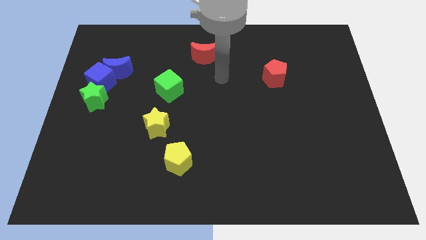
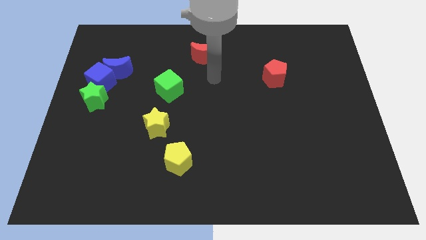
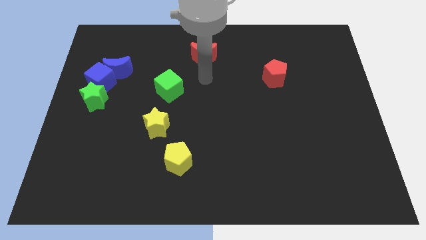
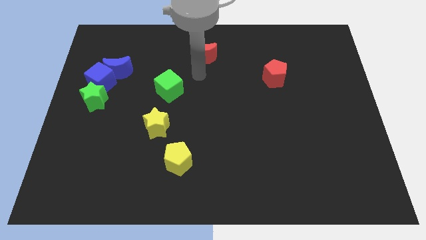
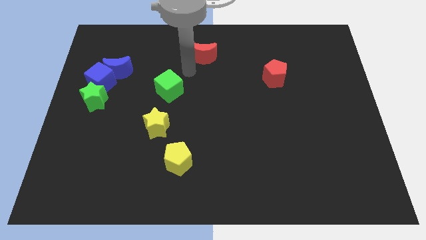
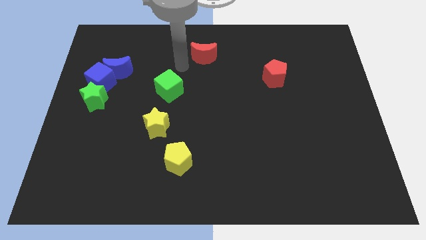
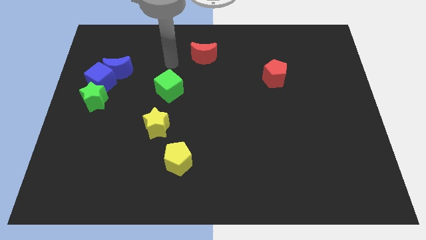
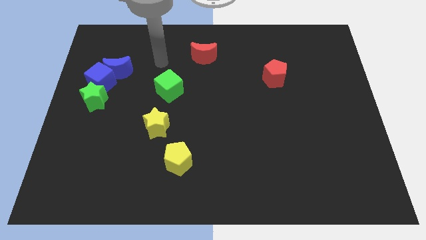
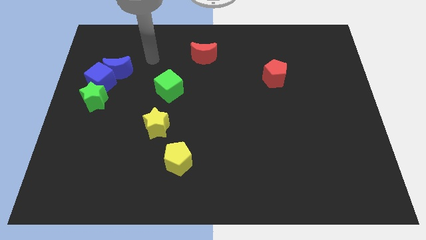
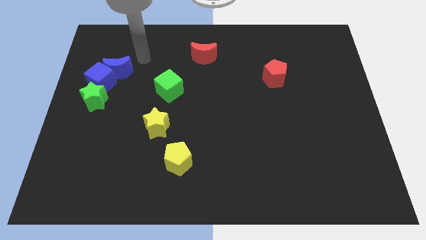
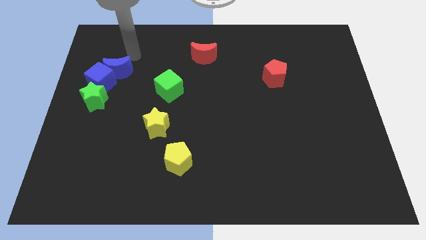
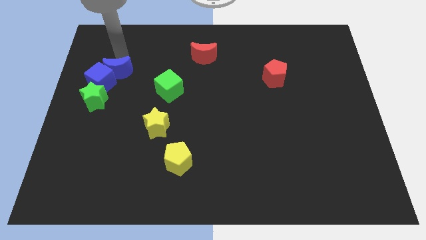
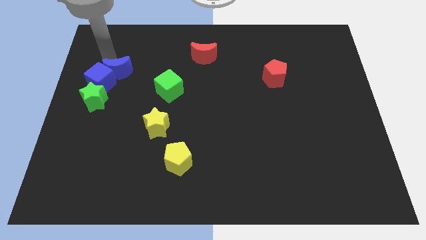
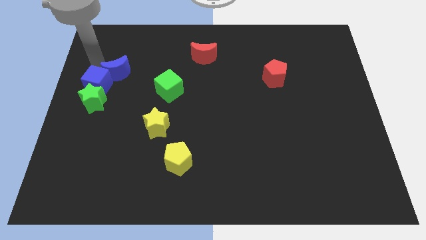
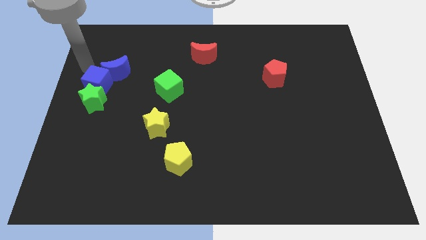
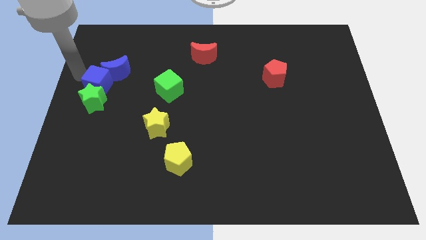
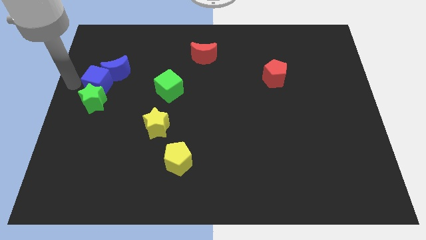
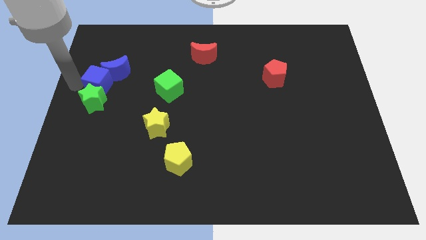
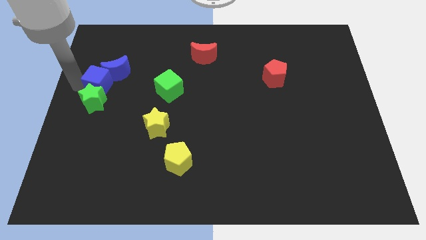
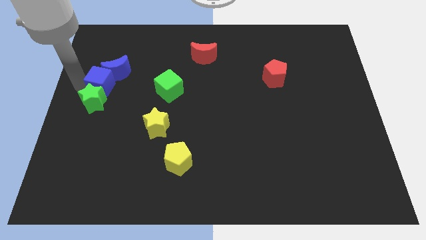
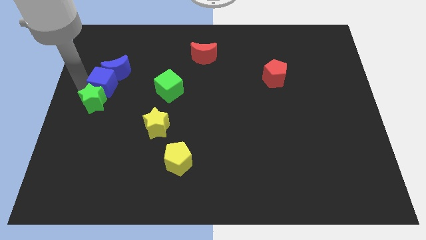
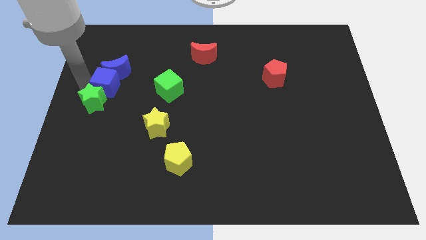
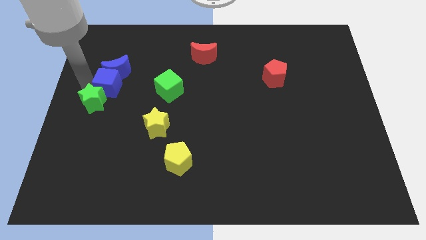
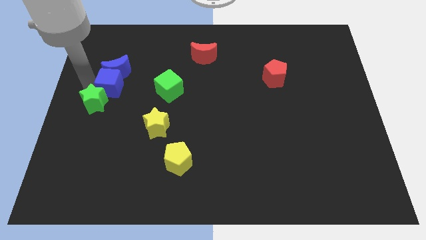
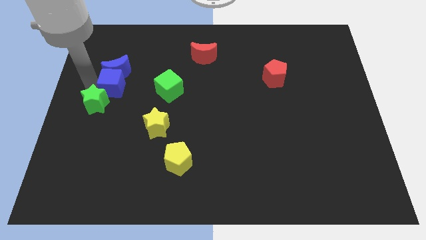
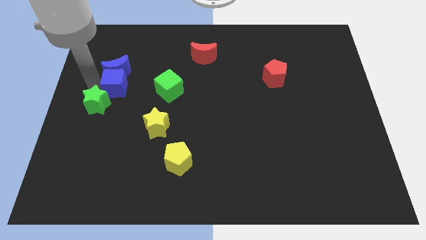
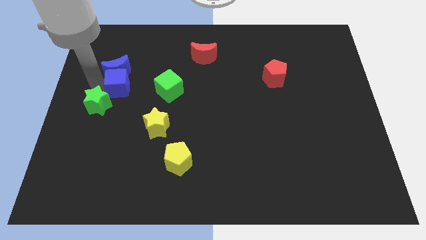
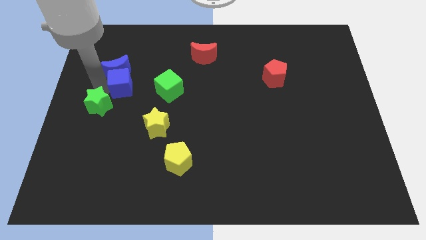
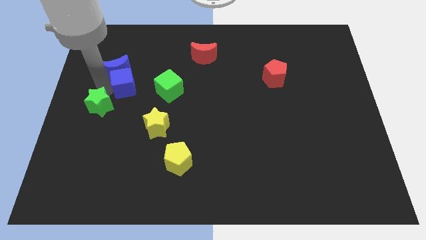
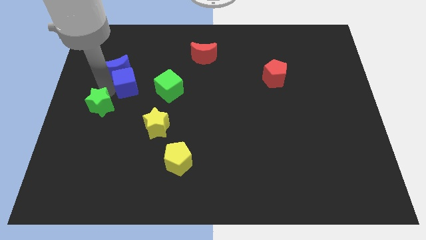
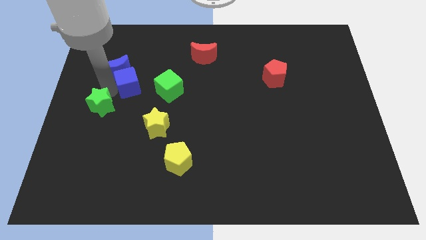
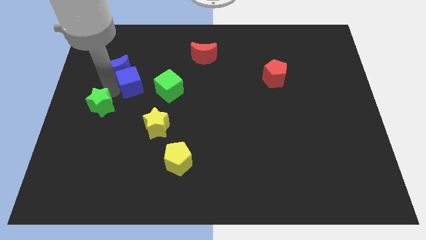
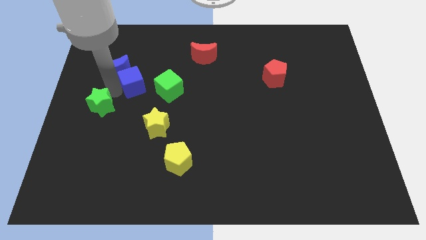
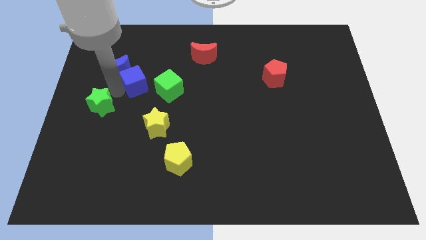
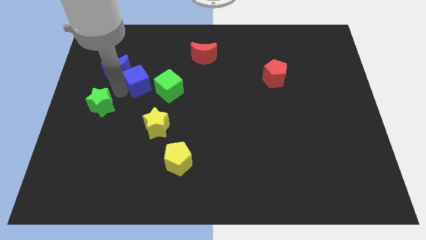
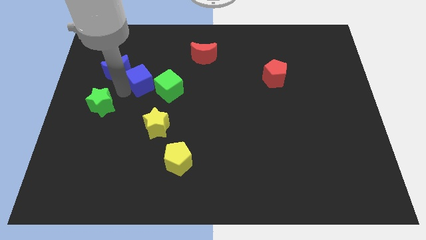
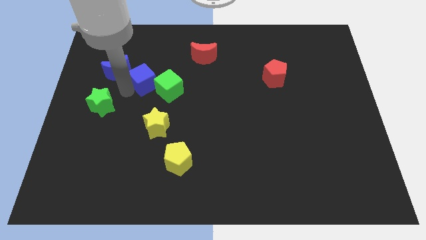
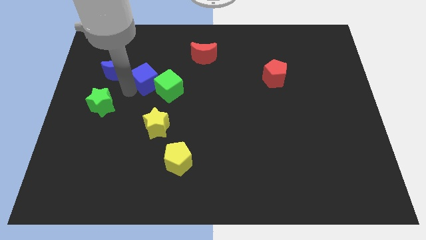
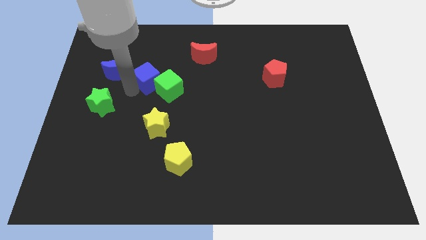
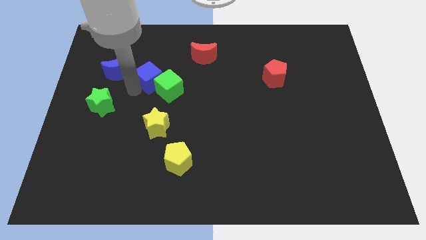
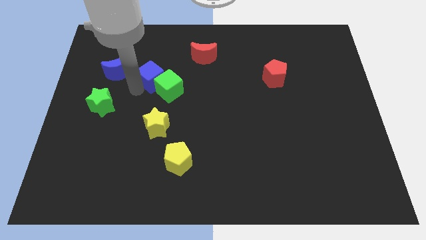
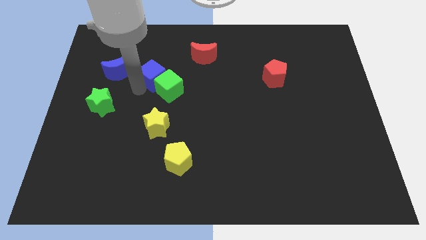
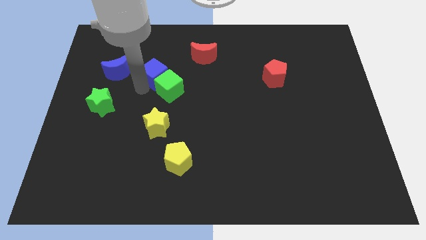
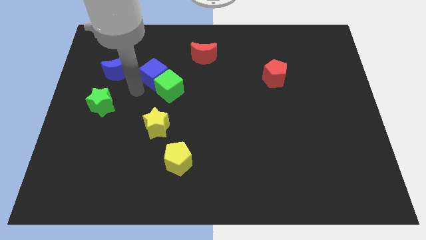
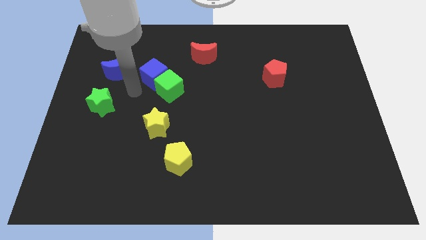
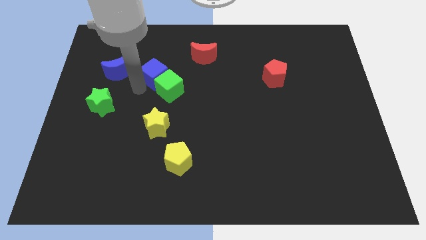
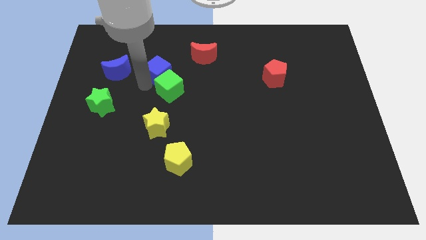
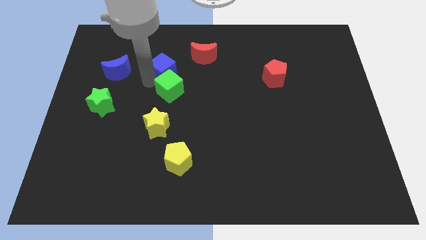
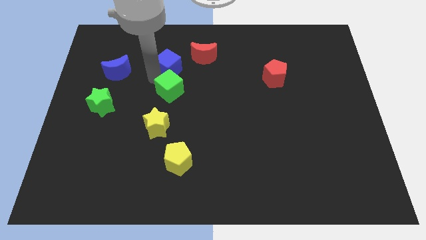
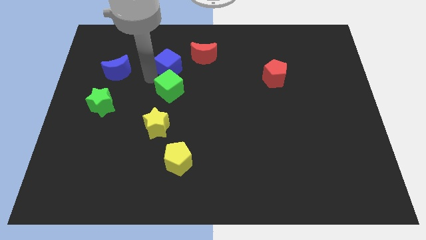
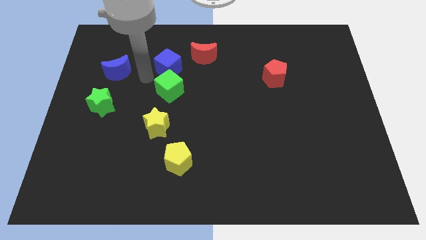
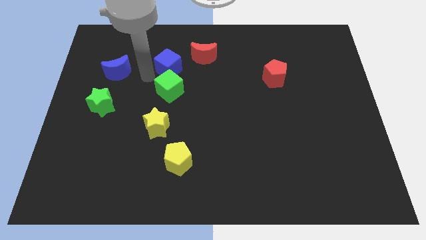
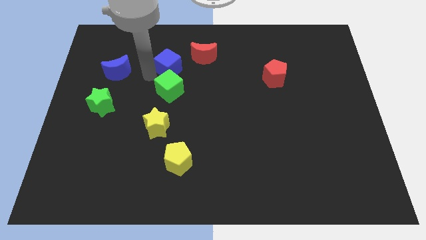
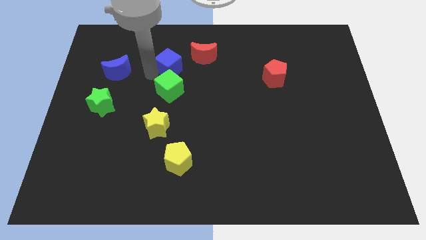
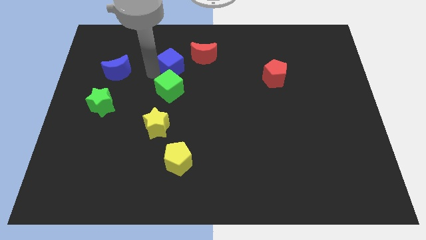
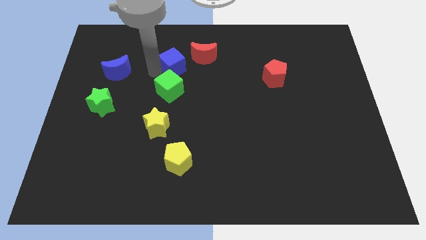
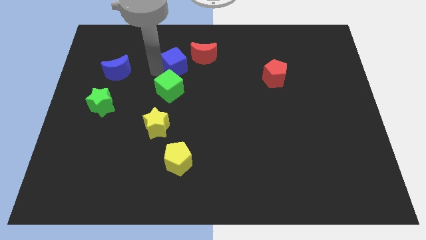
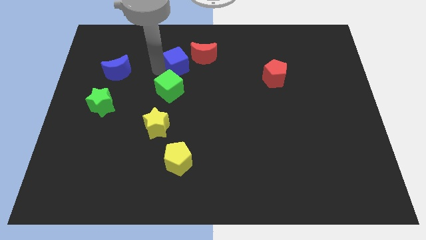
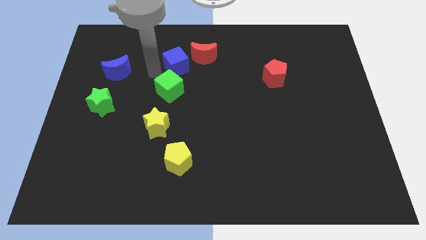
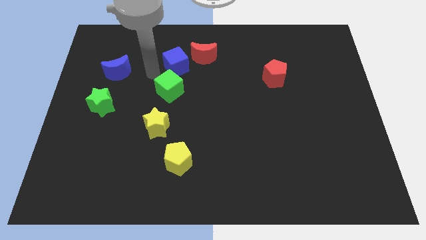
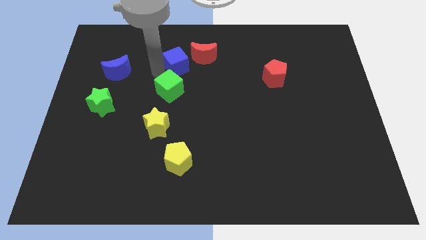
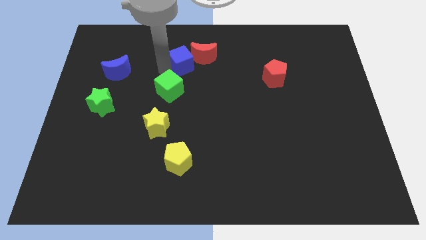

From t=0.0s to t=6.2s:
move the blue cube next to the red moon

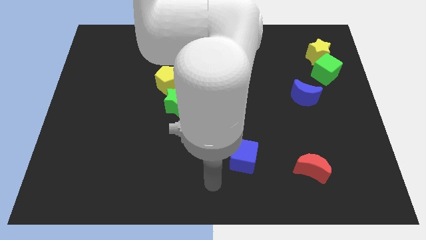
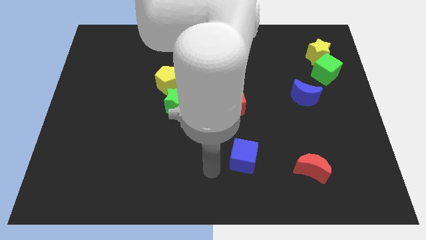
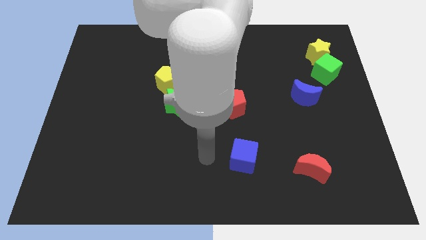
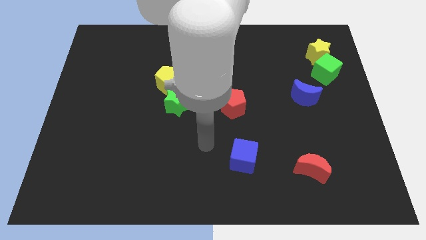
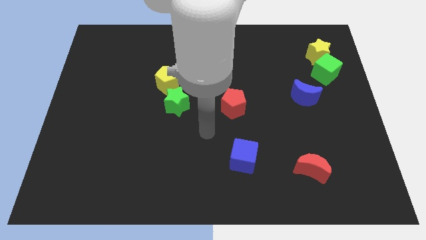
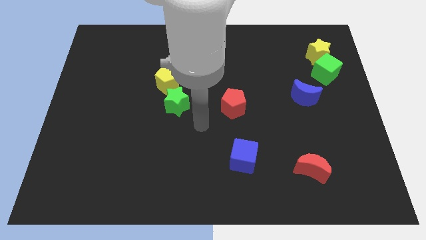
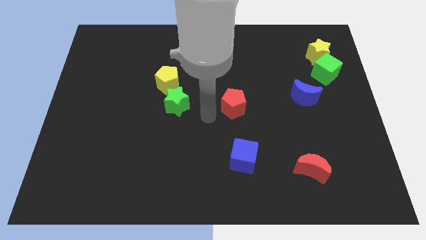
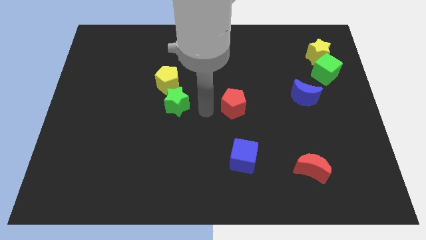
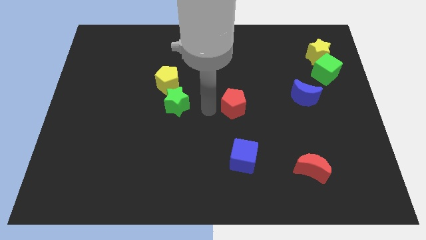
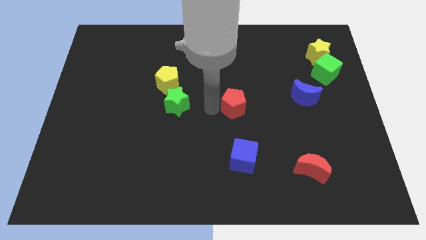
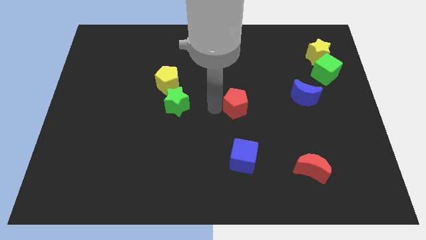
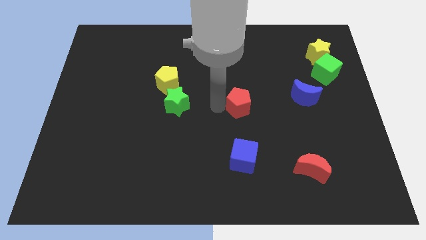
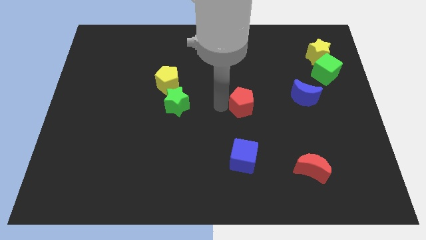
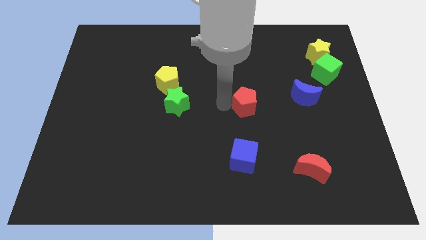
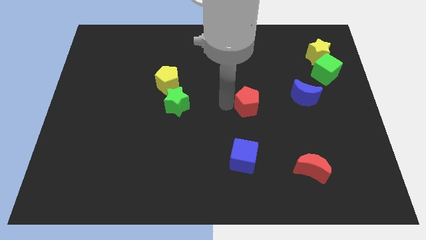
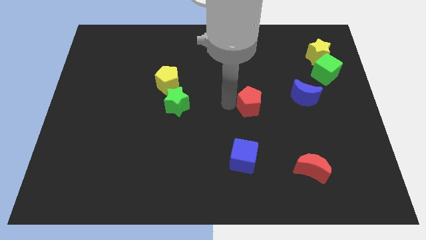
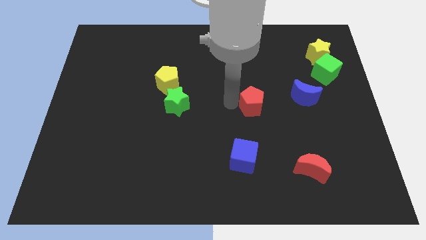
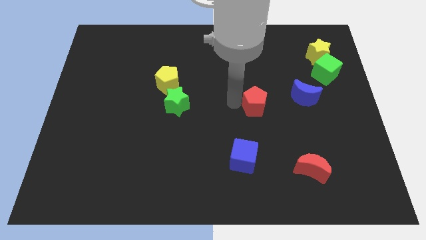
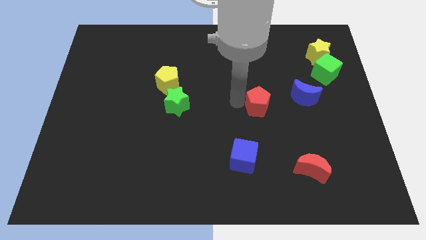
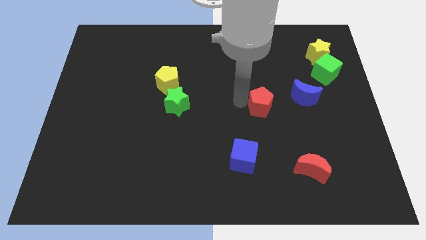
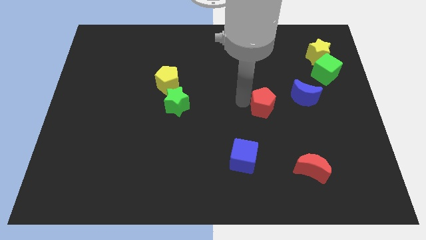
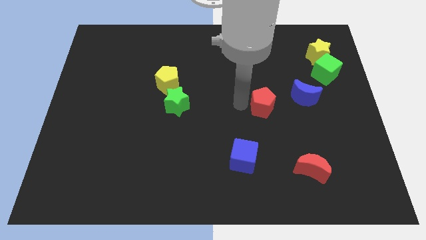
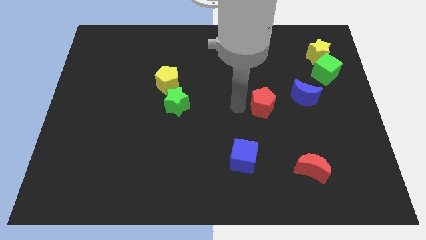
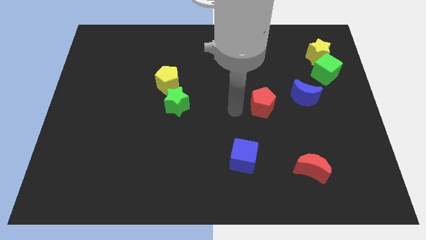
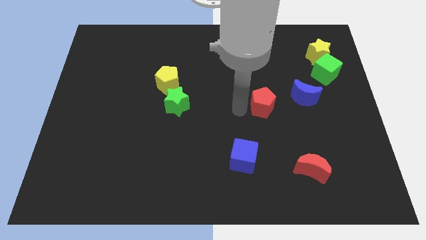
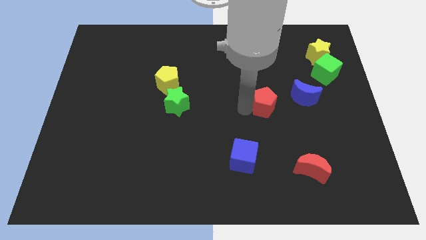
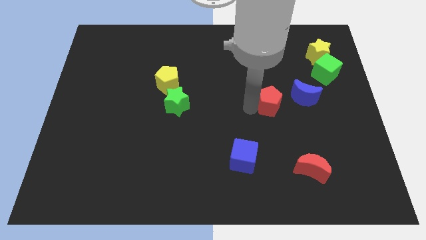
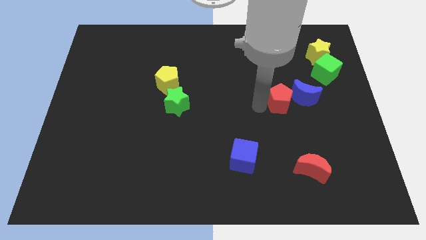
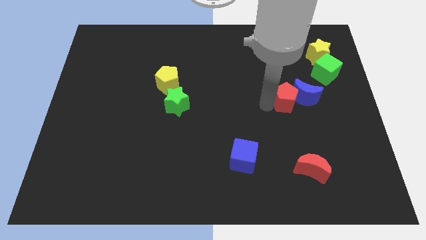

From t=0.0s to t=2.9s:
put the red pentagon close to the blue moon
